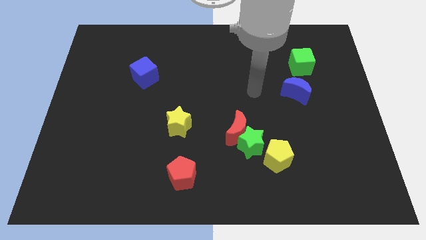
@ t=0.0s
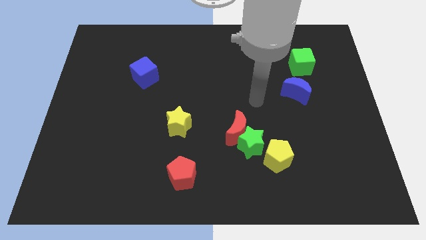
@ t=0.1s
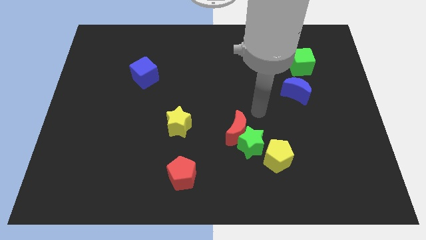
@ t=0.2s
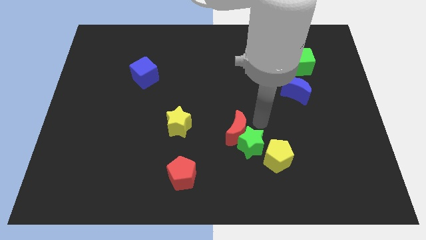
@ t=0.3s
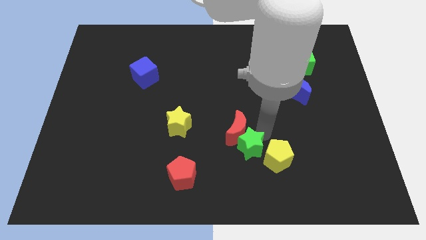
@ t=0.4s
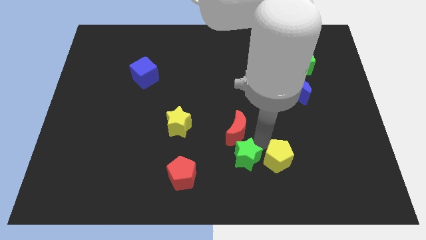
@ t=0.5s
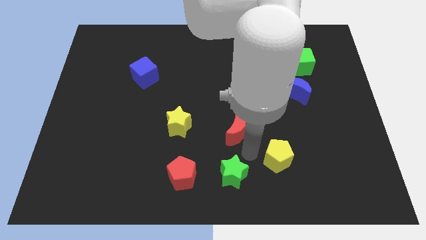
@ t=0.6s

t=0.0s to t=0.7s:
separate the red moon from the green star

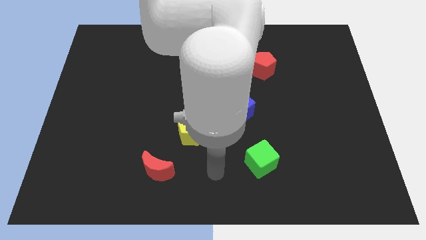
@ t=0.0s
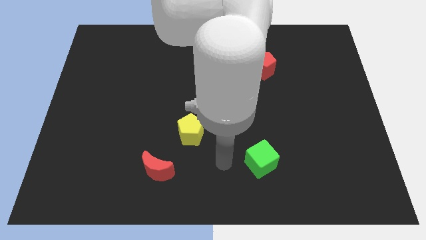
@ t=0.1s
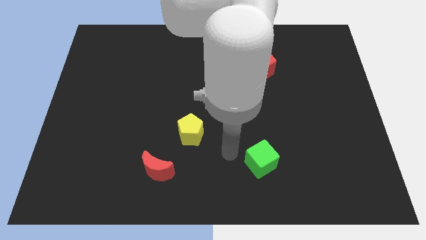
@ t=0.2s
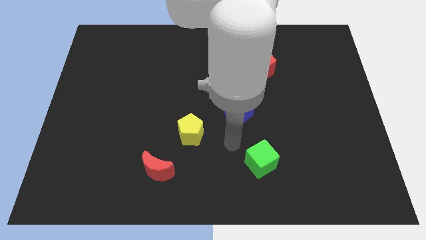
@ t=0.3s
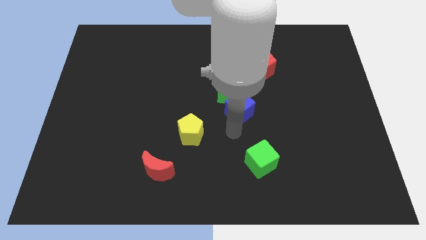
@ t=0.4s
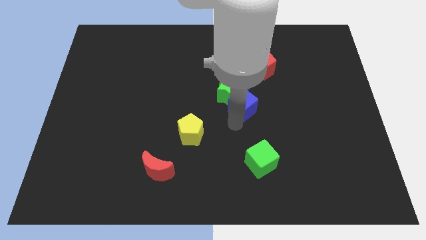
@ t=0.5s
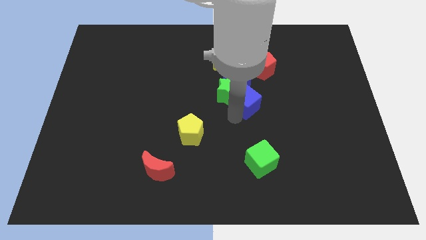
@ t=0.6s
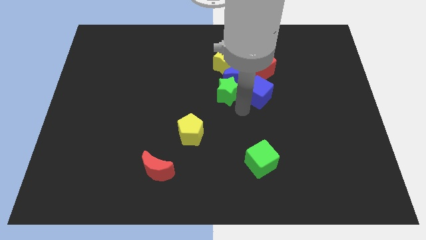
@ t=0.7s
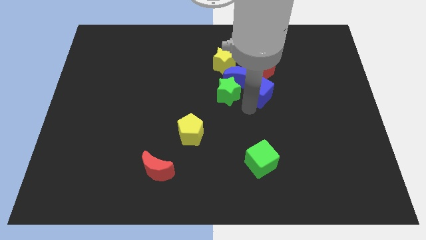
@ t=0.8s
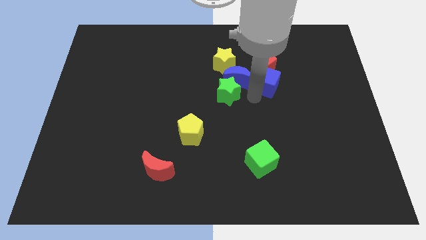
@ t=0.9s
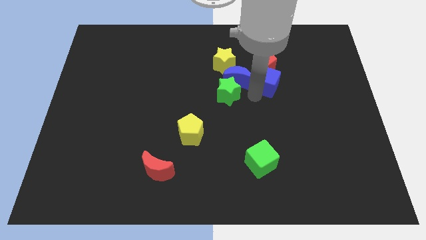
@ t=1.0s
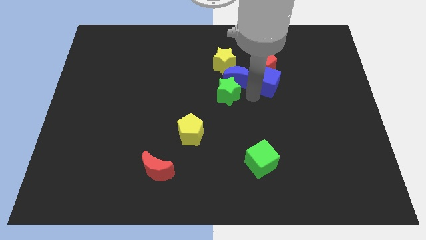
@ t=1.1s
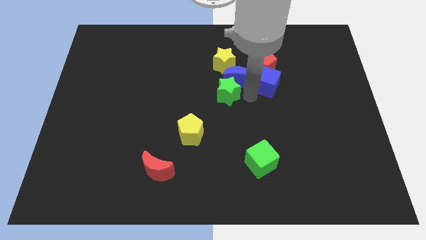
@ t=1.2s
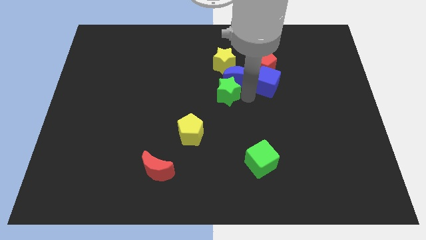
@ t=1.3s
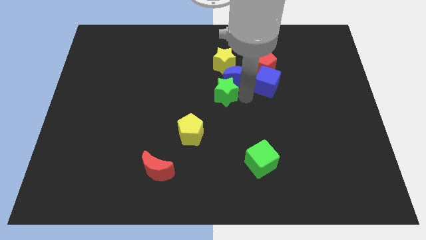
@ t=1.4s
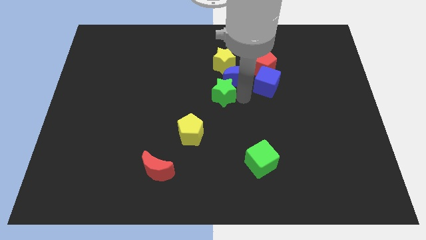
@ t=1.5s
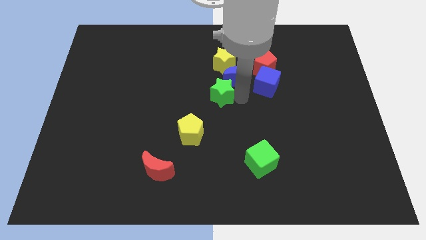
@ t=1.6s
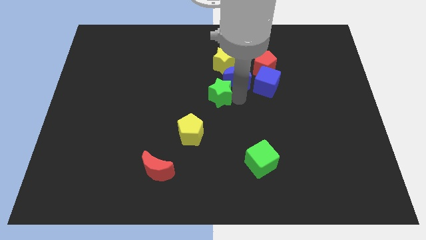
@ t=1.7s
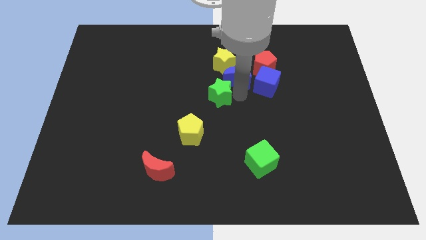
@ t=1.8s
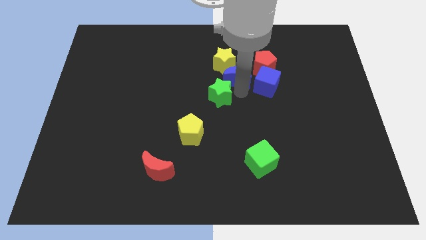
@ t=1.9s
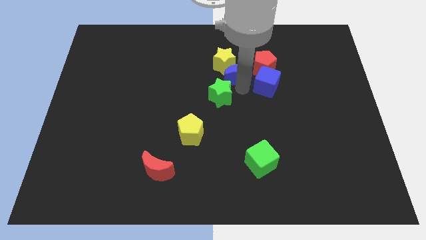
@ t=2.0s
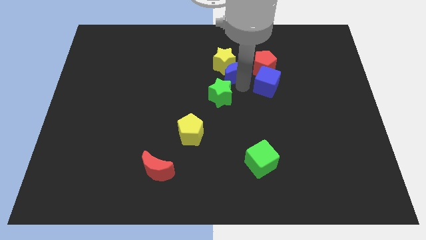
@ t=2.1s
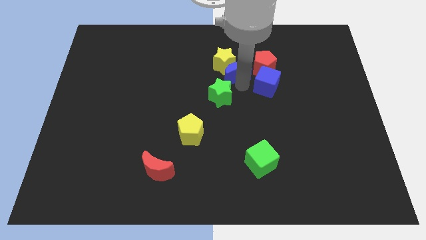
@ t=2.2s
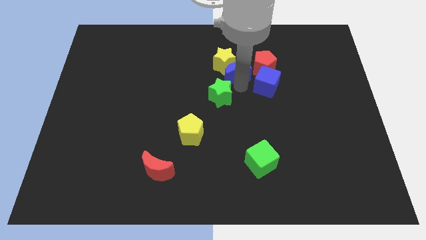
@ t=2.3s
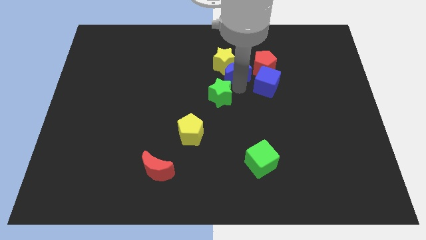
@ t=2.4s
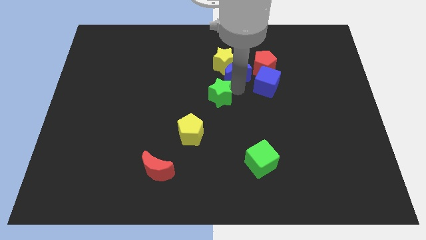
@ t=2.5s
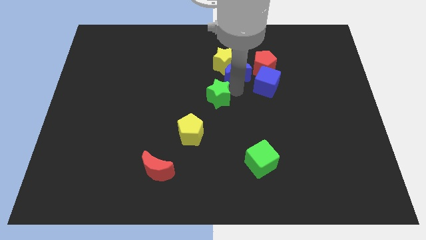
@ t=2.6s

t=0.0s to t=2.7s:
pull the green star apart from the blue moon and blue cube

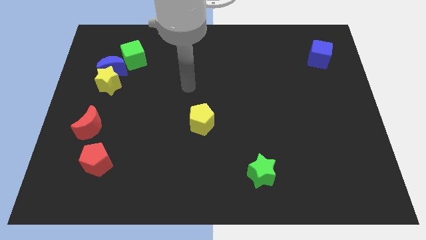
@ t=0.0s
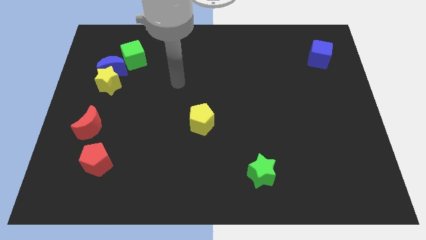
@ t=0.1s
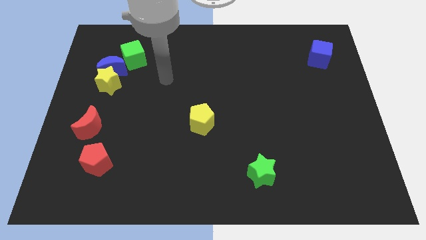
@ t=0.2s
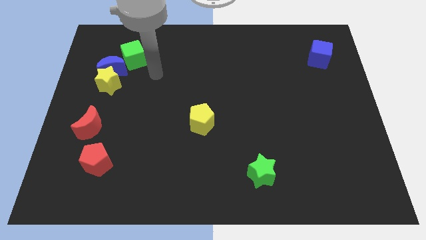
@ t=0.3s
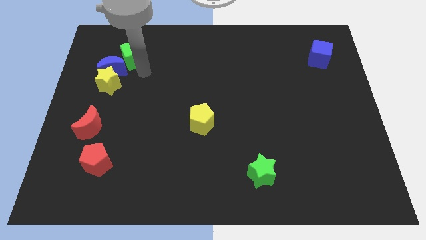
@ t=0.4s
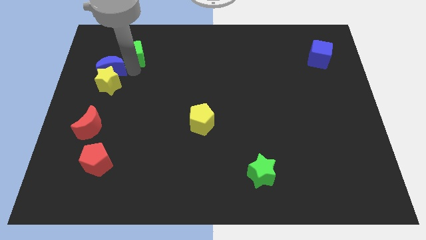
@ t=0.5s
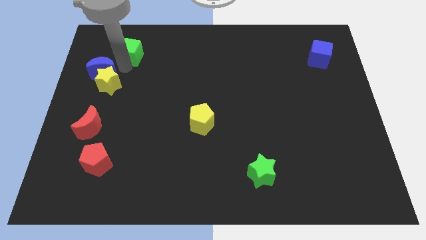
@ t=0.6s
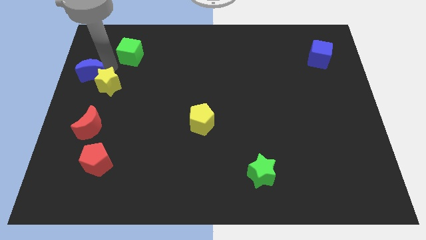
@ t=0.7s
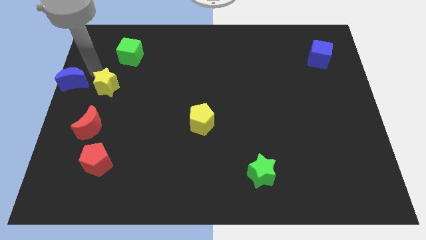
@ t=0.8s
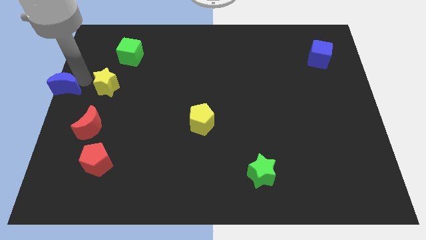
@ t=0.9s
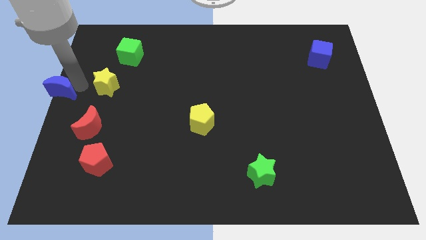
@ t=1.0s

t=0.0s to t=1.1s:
move the yellow star away from the blue moon

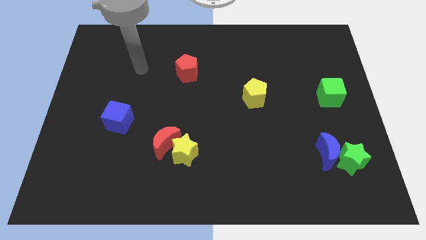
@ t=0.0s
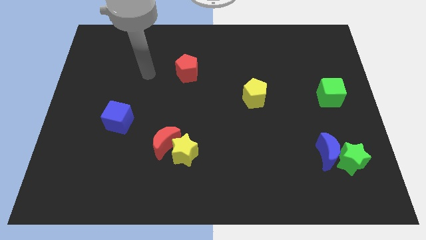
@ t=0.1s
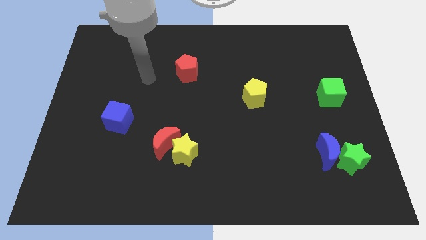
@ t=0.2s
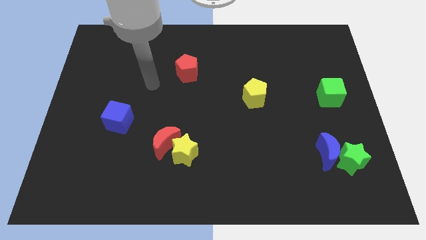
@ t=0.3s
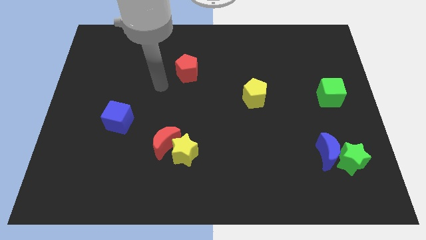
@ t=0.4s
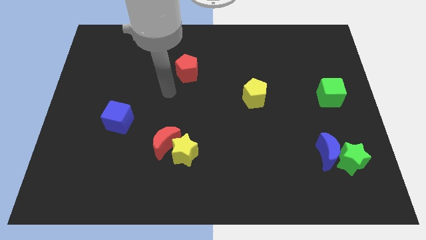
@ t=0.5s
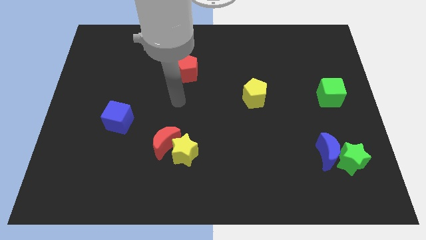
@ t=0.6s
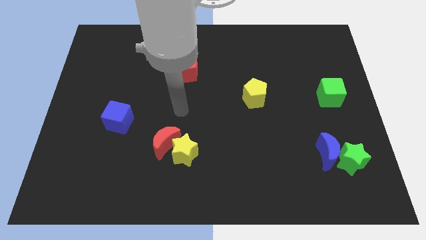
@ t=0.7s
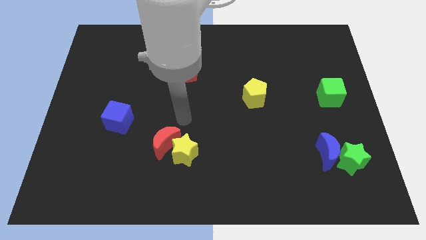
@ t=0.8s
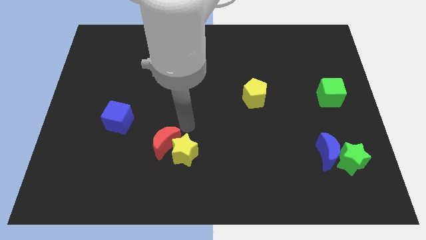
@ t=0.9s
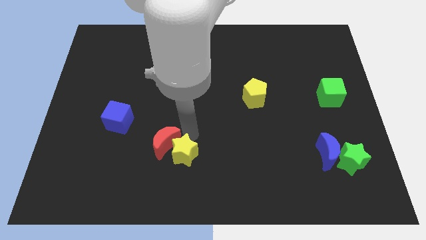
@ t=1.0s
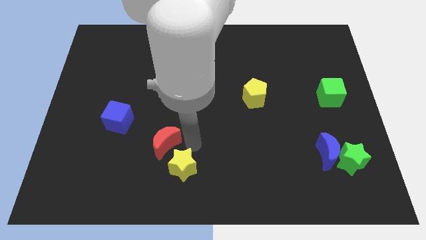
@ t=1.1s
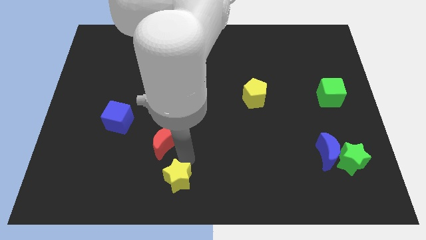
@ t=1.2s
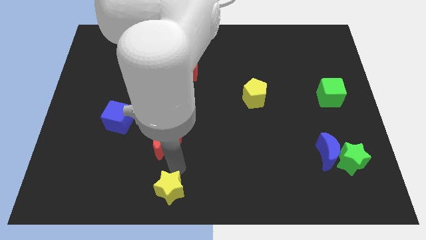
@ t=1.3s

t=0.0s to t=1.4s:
move the red moon away from the yellow star

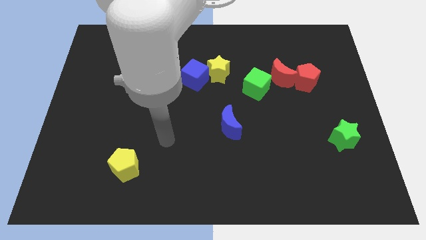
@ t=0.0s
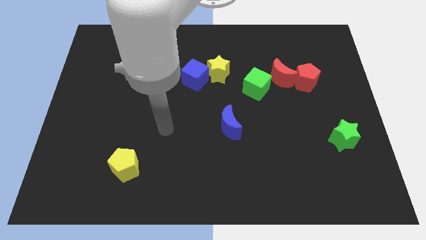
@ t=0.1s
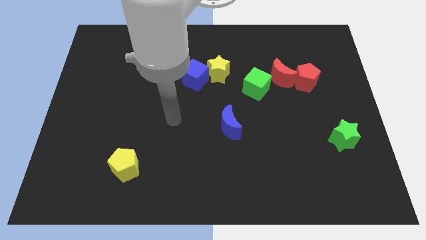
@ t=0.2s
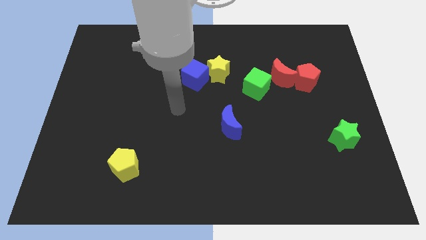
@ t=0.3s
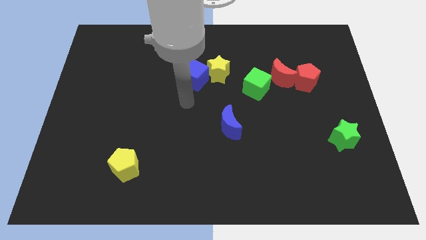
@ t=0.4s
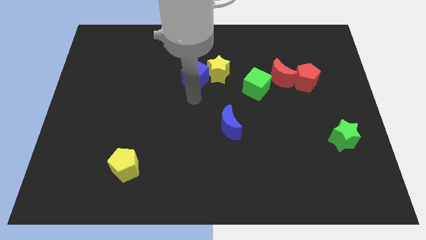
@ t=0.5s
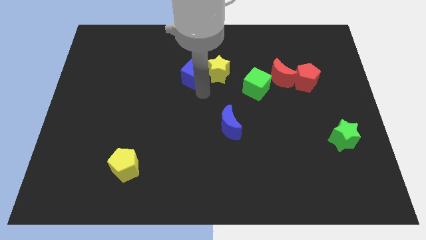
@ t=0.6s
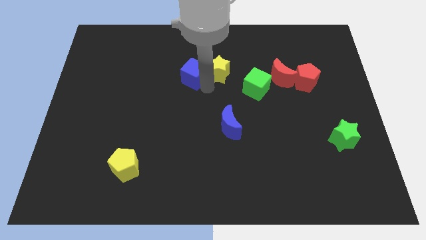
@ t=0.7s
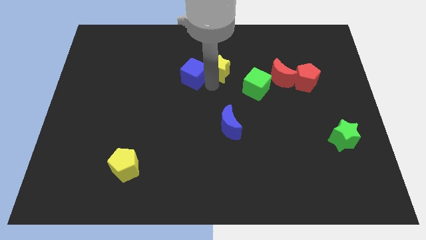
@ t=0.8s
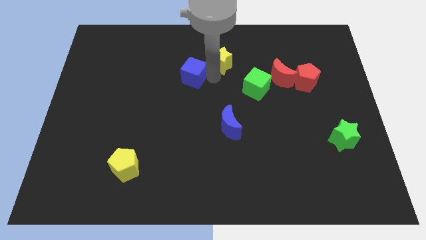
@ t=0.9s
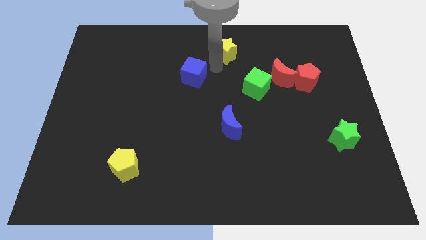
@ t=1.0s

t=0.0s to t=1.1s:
separate the blue cube from the yellow star

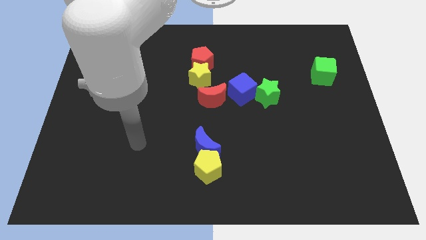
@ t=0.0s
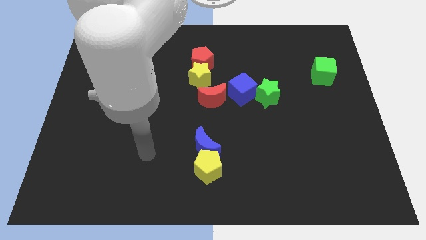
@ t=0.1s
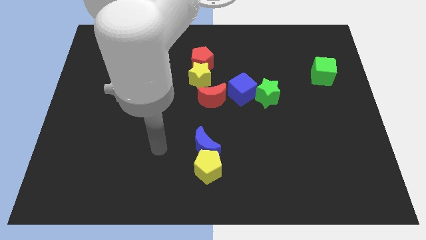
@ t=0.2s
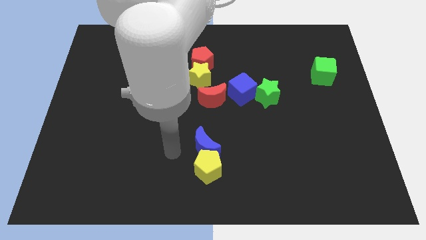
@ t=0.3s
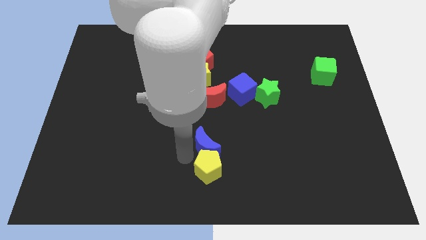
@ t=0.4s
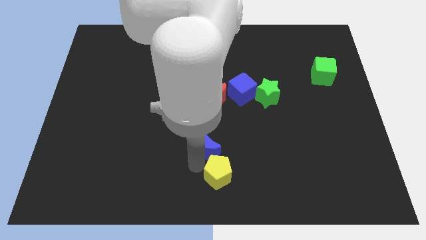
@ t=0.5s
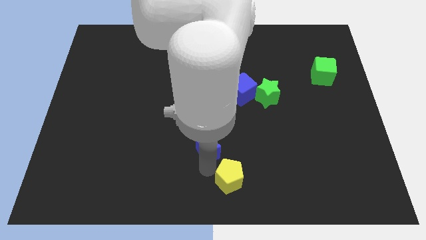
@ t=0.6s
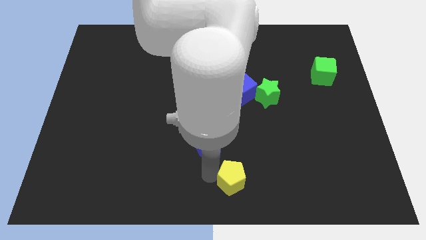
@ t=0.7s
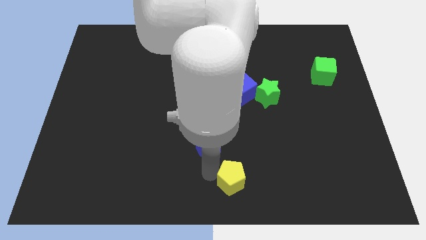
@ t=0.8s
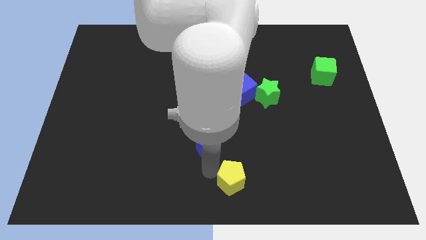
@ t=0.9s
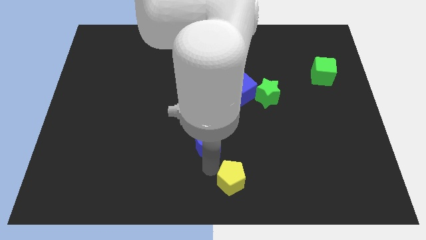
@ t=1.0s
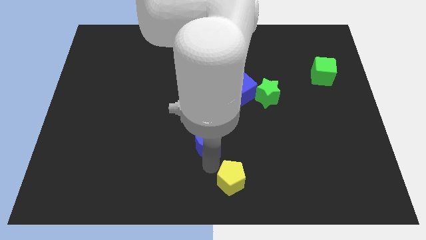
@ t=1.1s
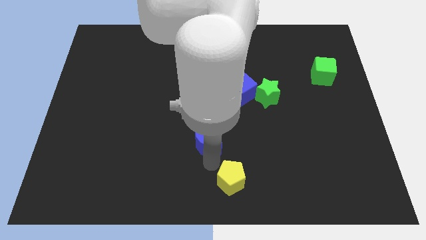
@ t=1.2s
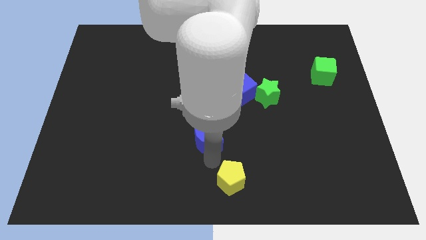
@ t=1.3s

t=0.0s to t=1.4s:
separate the blue moon from the yellow pentagon

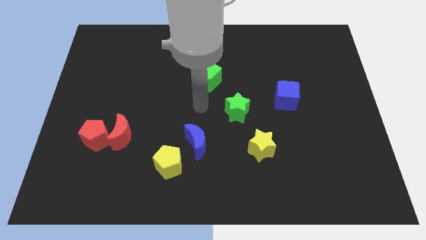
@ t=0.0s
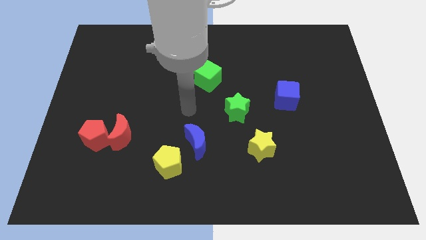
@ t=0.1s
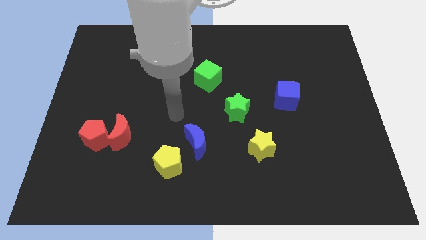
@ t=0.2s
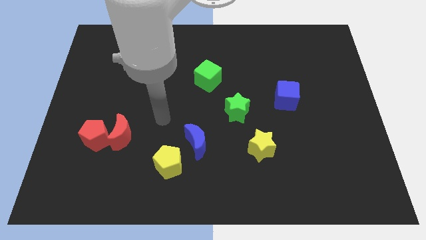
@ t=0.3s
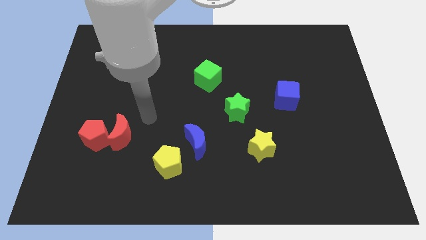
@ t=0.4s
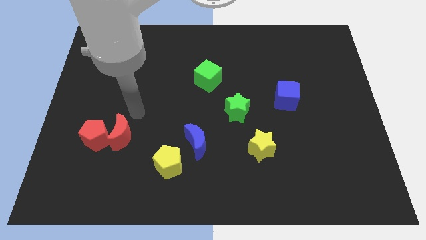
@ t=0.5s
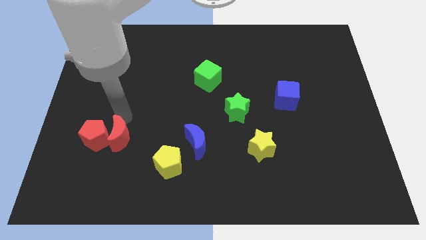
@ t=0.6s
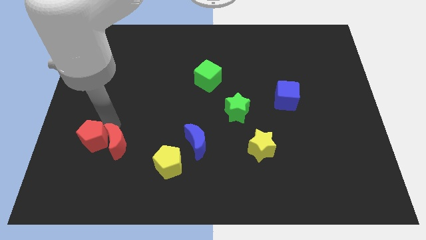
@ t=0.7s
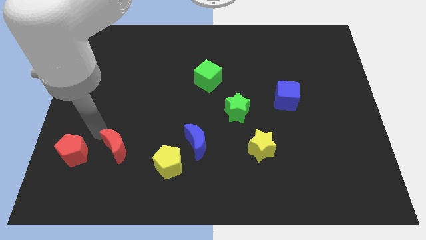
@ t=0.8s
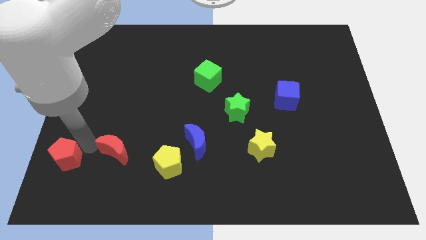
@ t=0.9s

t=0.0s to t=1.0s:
separate the red moon from the red pentagon
